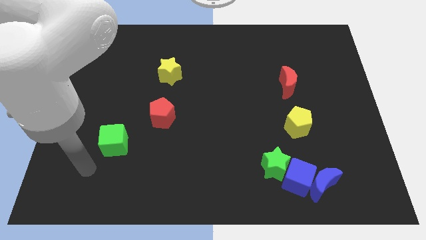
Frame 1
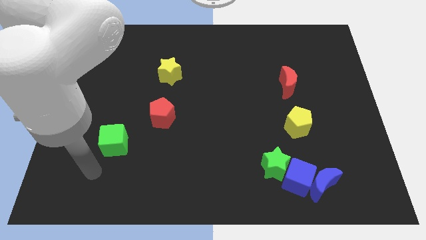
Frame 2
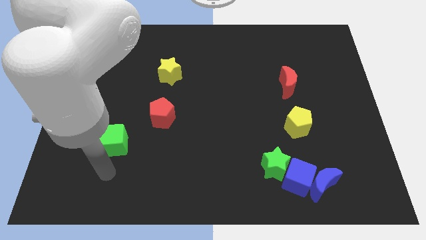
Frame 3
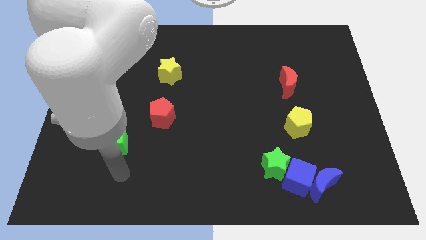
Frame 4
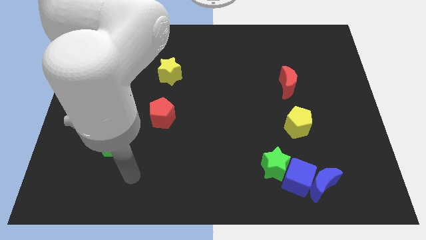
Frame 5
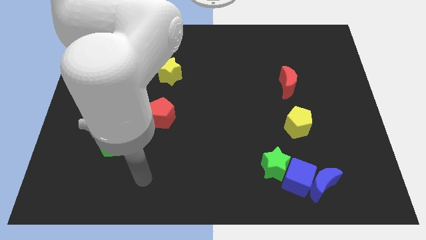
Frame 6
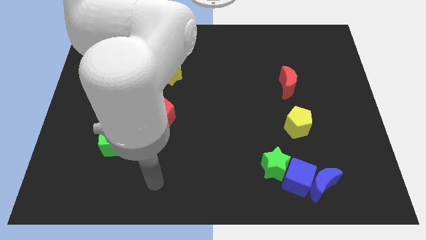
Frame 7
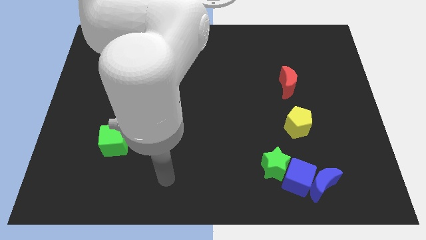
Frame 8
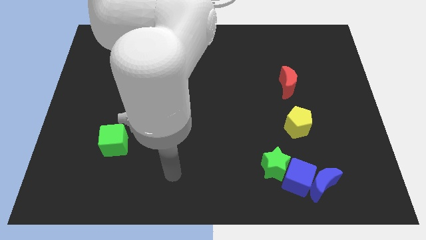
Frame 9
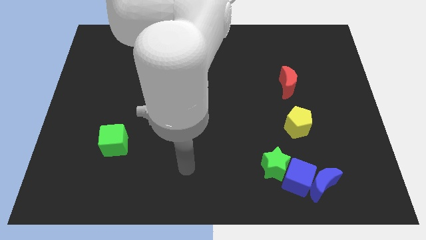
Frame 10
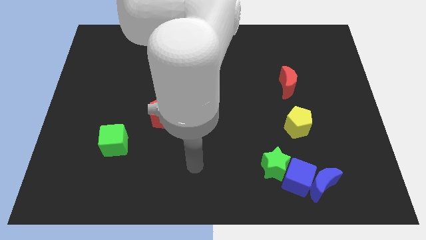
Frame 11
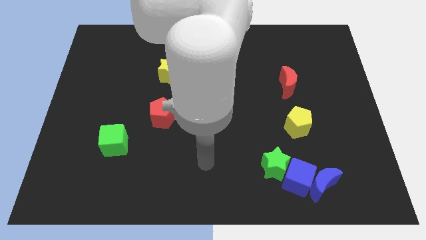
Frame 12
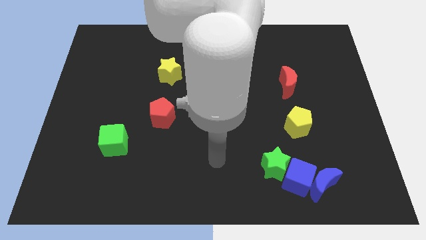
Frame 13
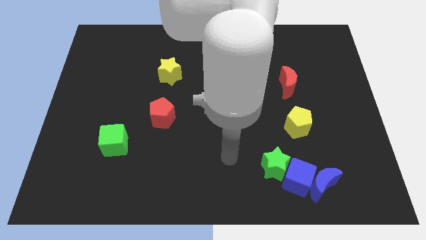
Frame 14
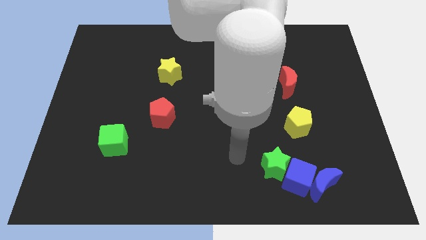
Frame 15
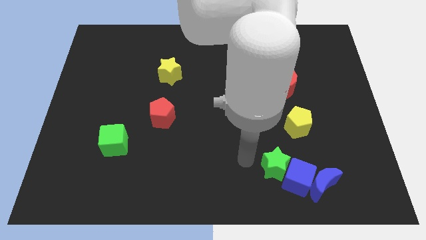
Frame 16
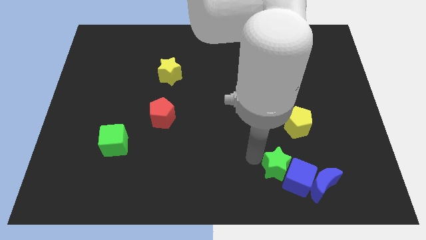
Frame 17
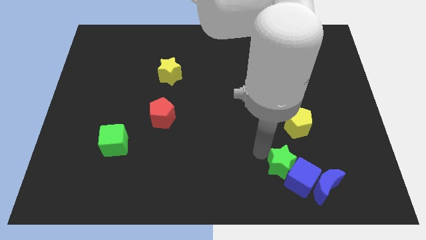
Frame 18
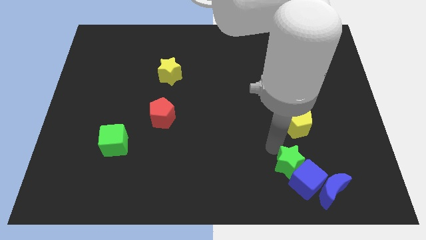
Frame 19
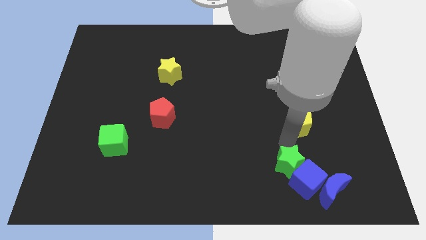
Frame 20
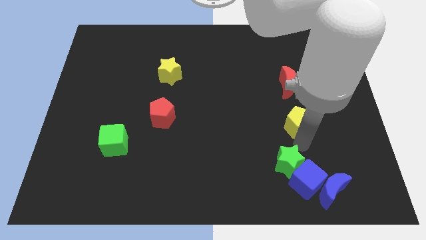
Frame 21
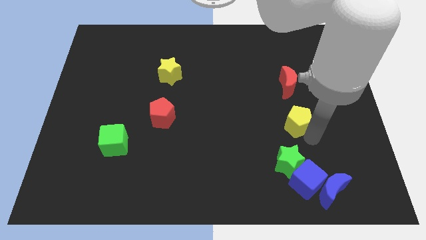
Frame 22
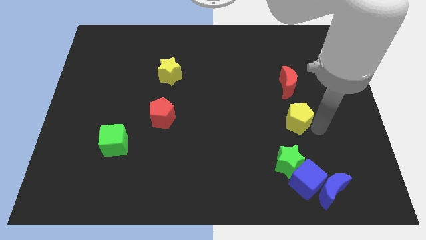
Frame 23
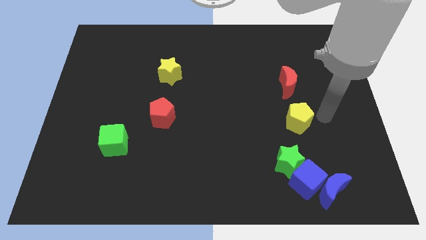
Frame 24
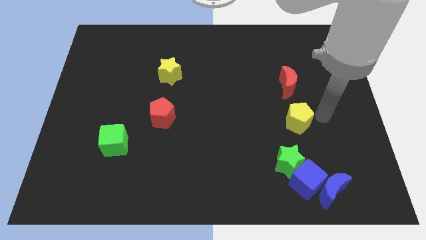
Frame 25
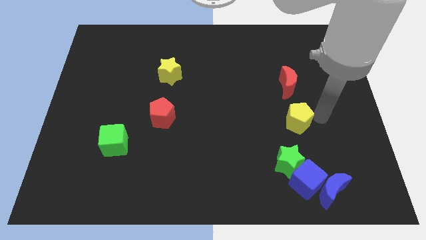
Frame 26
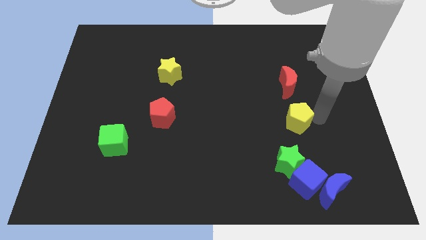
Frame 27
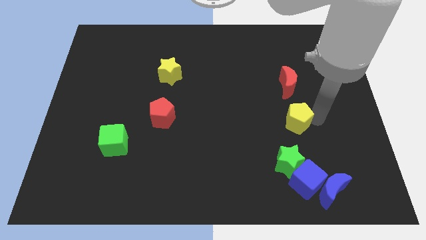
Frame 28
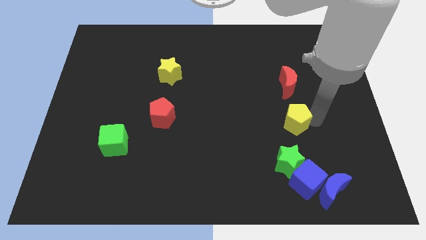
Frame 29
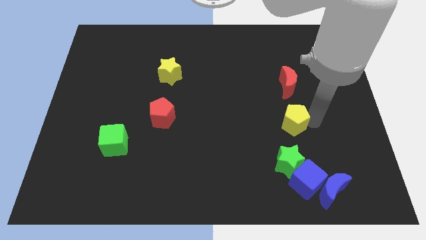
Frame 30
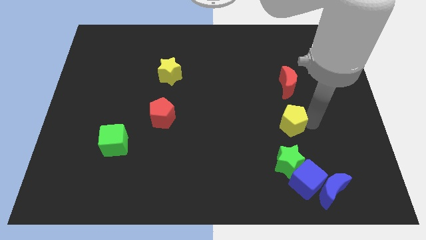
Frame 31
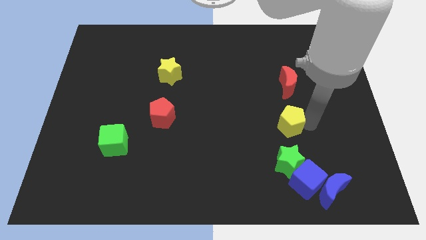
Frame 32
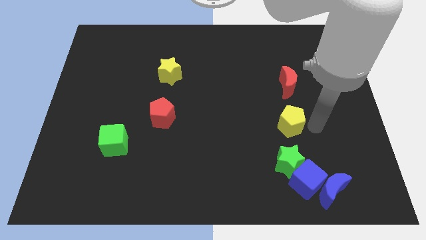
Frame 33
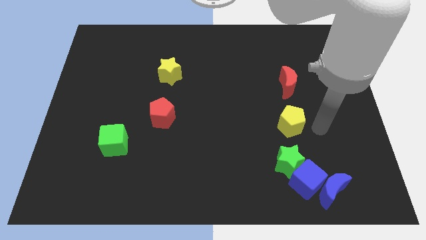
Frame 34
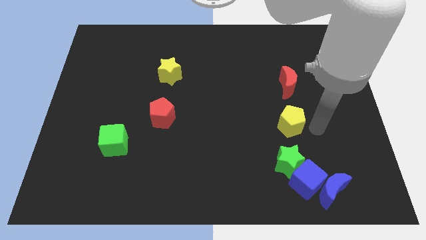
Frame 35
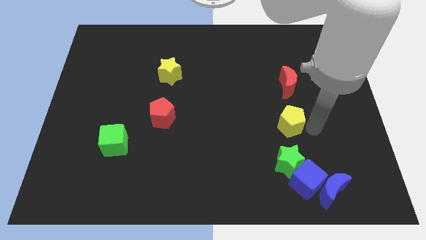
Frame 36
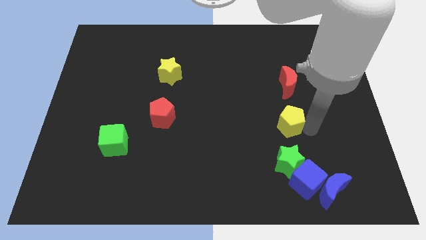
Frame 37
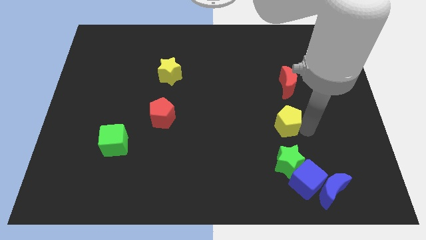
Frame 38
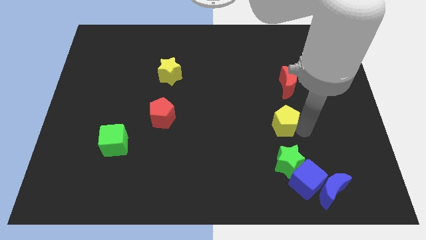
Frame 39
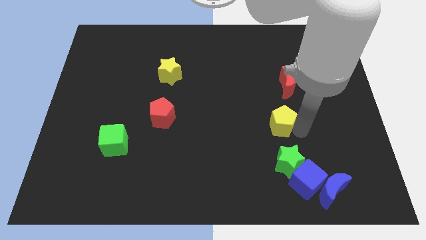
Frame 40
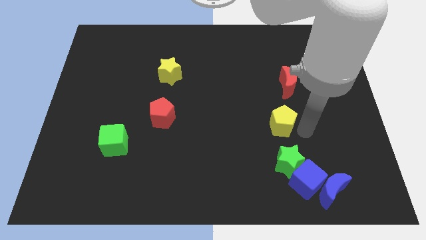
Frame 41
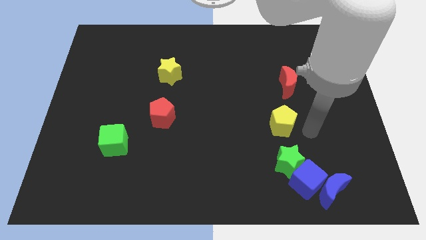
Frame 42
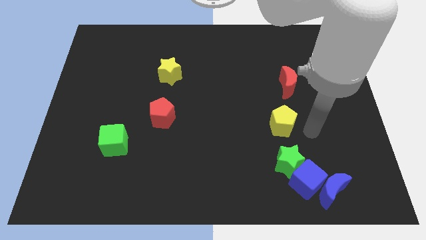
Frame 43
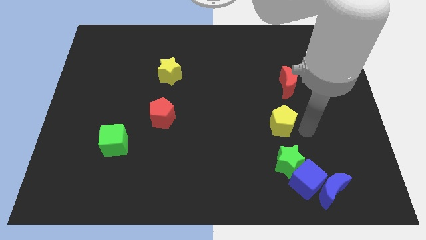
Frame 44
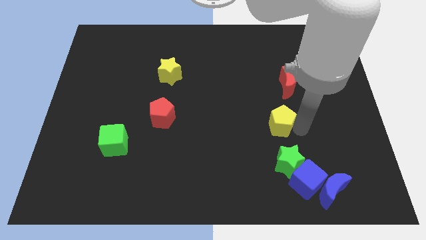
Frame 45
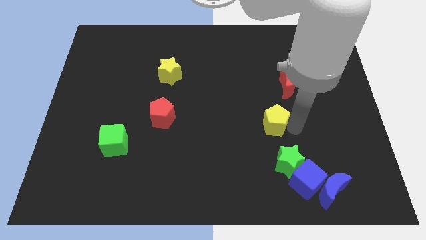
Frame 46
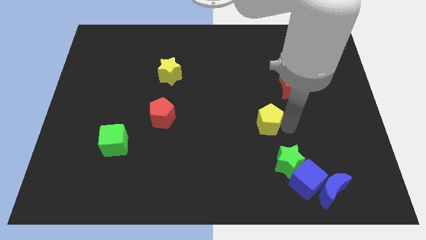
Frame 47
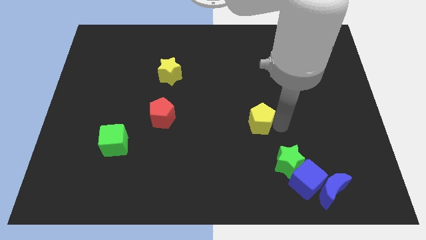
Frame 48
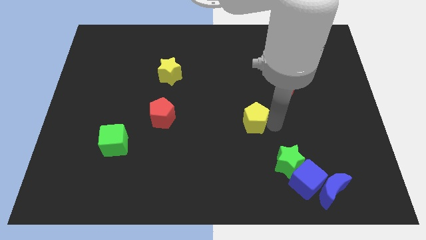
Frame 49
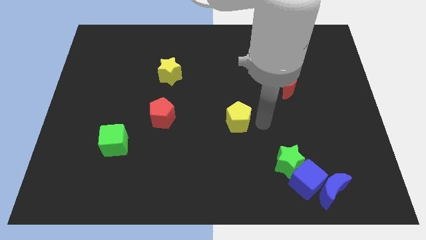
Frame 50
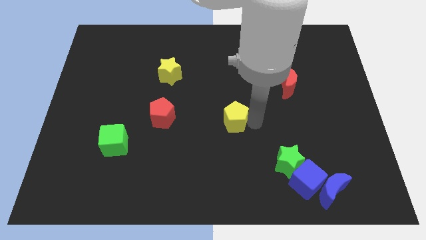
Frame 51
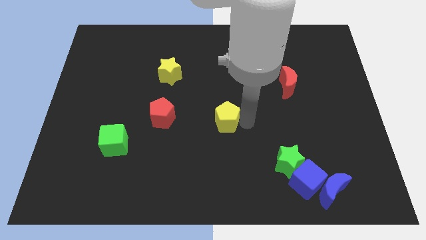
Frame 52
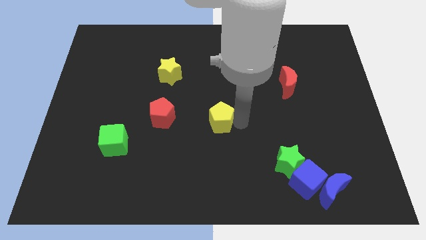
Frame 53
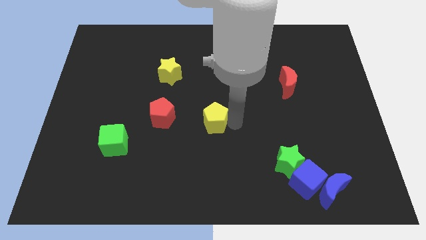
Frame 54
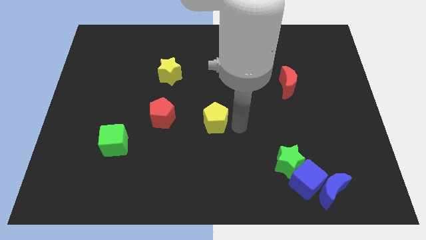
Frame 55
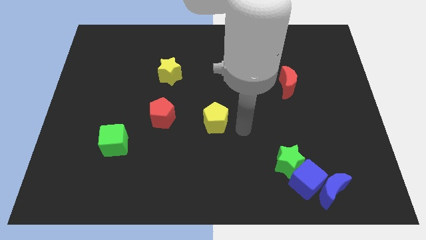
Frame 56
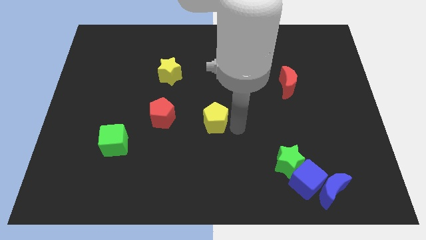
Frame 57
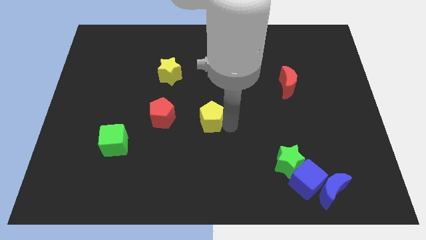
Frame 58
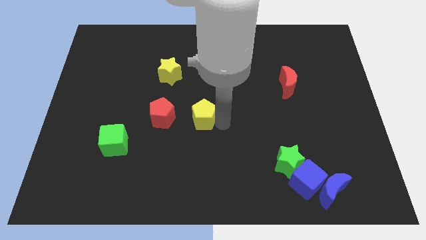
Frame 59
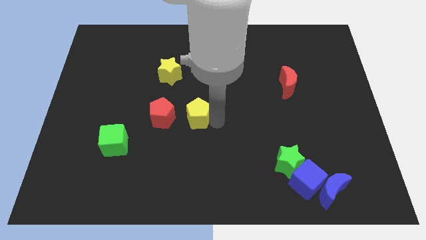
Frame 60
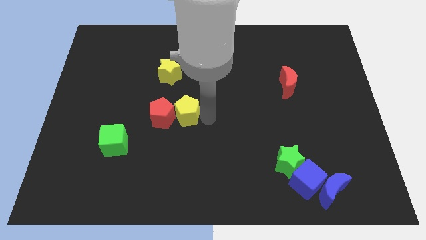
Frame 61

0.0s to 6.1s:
push the yellow pentagon next to the red pentagon
